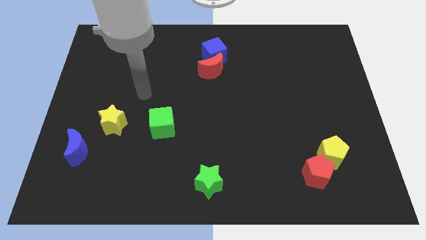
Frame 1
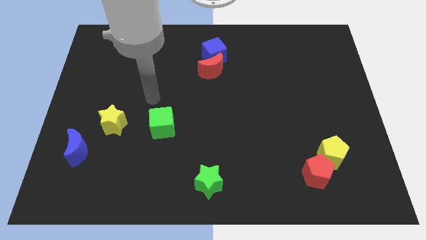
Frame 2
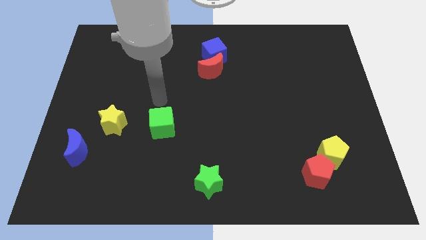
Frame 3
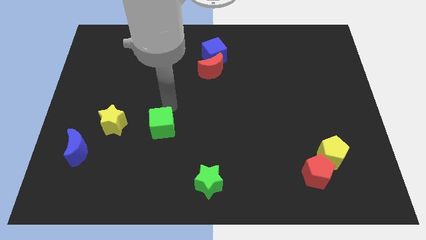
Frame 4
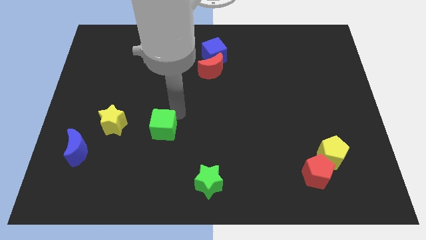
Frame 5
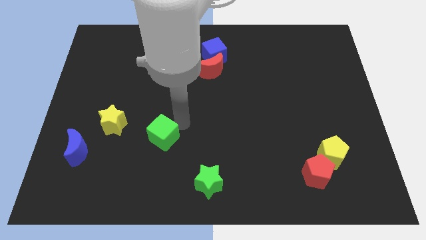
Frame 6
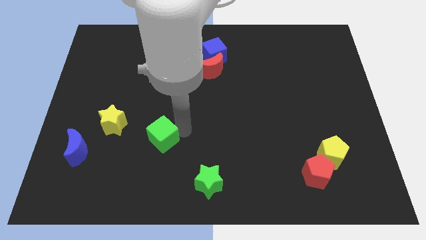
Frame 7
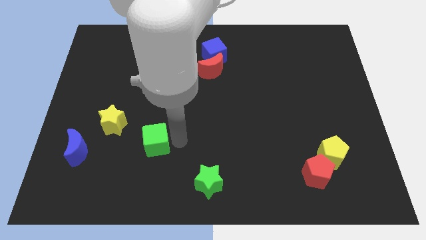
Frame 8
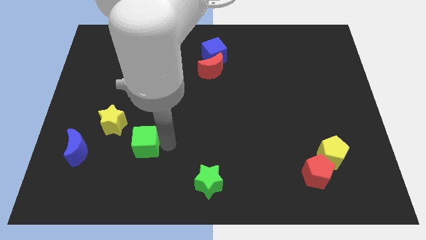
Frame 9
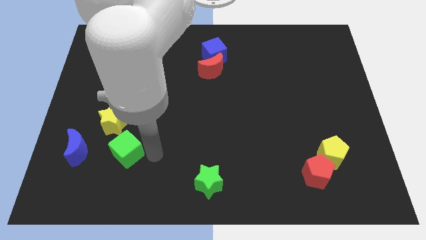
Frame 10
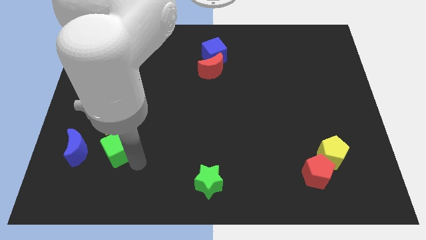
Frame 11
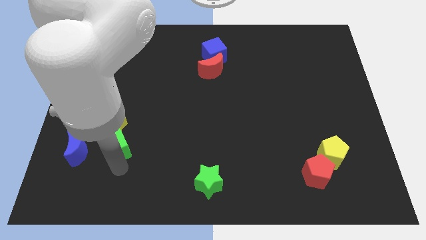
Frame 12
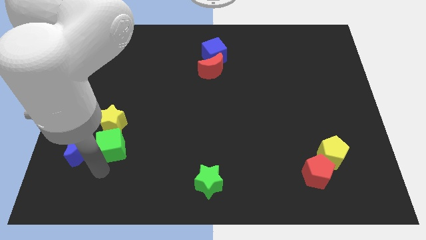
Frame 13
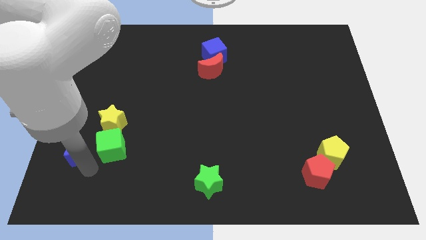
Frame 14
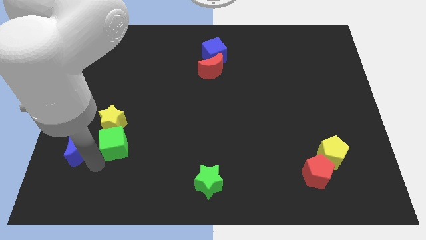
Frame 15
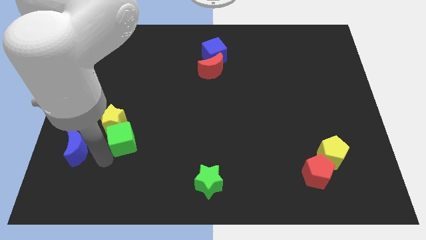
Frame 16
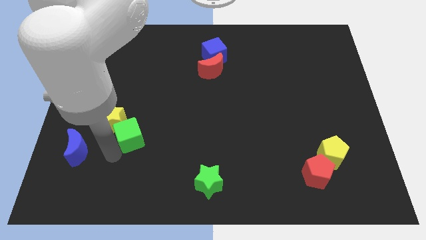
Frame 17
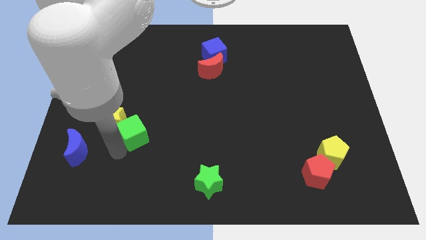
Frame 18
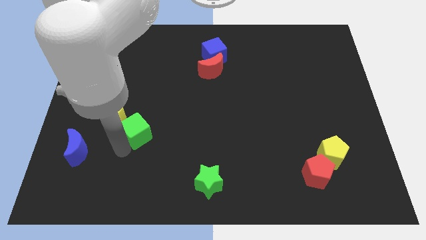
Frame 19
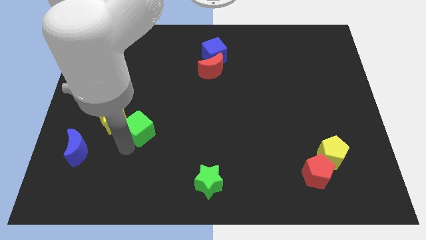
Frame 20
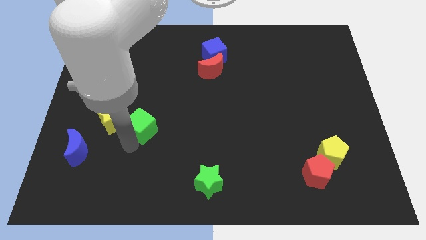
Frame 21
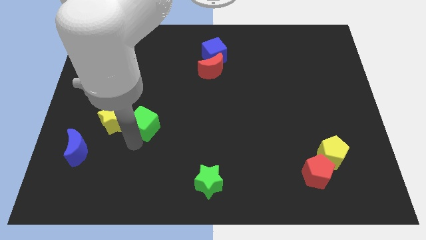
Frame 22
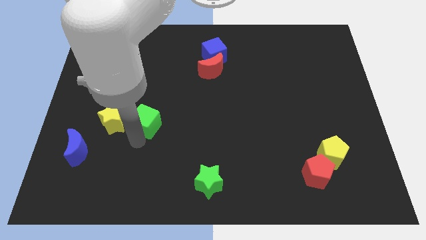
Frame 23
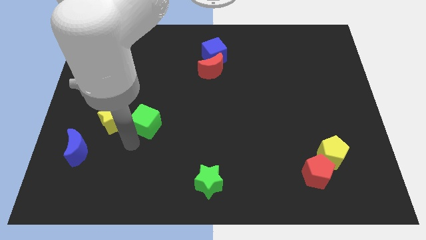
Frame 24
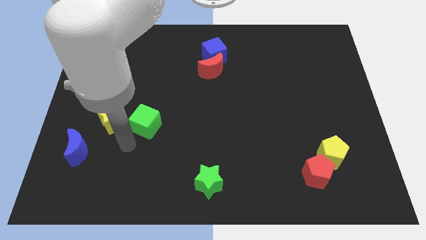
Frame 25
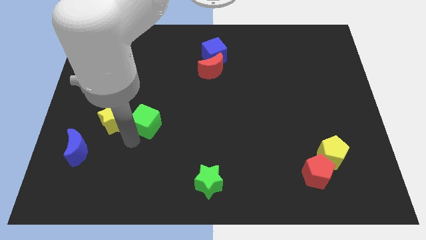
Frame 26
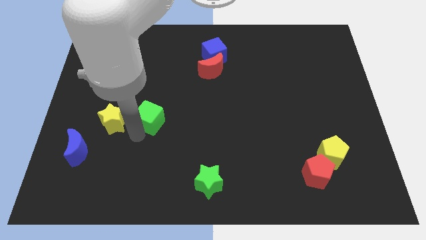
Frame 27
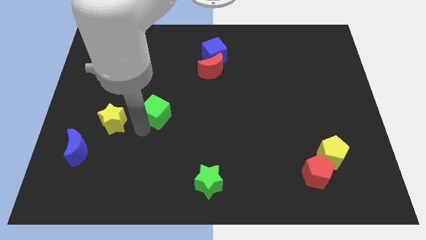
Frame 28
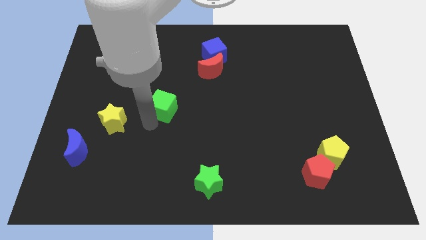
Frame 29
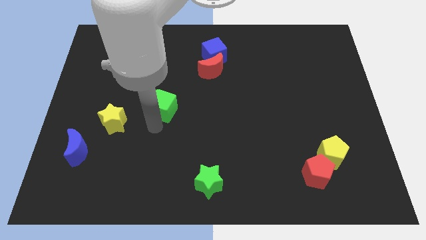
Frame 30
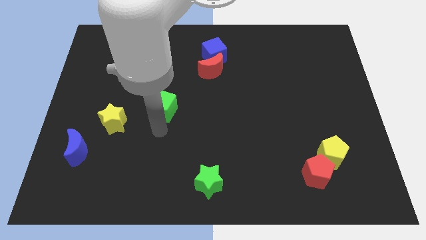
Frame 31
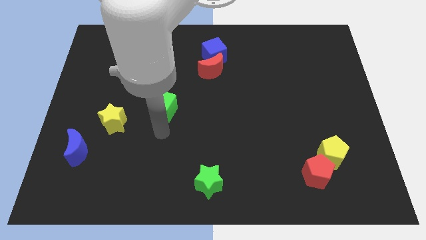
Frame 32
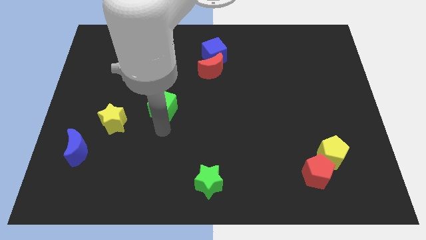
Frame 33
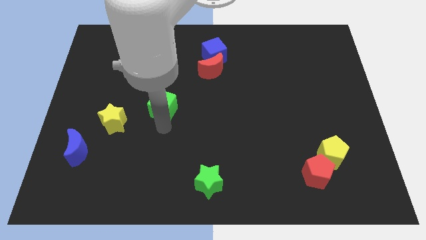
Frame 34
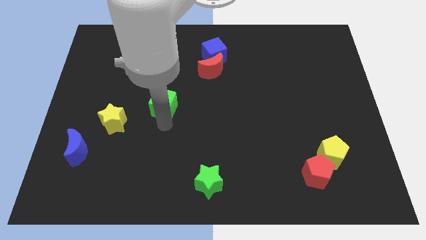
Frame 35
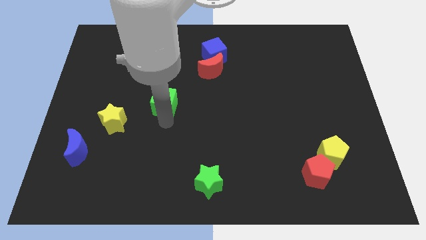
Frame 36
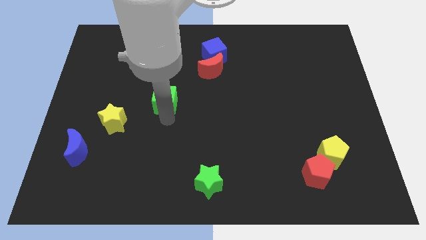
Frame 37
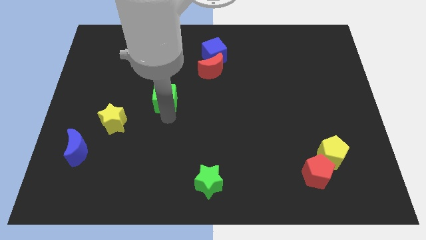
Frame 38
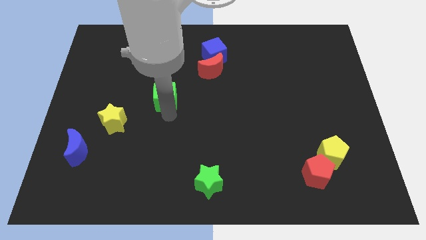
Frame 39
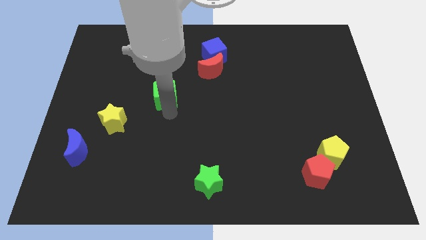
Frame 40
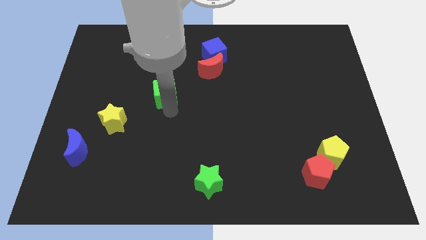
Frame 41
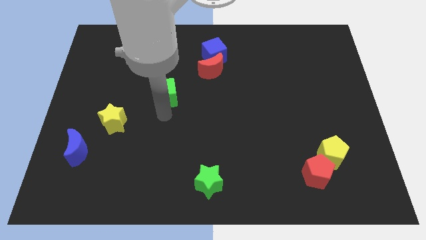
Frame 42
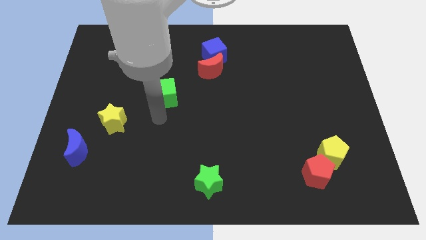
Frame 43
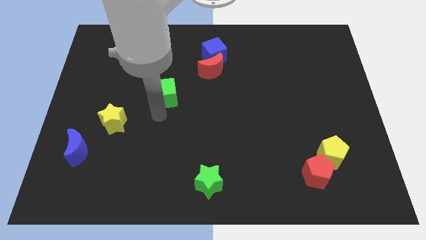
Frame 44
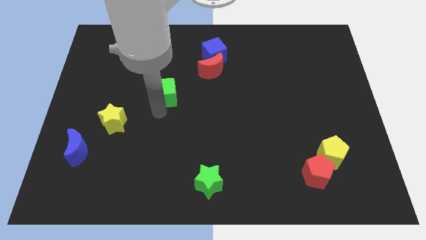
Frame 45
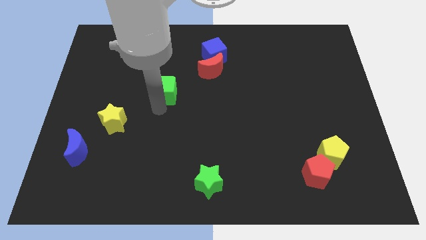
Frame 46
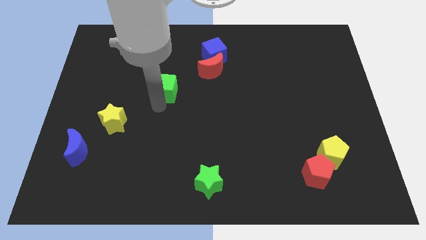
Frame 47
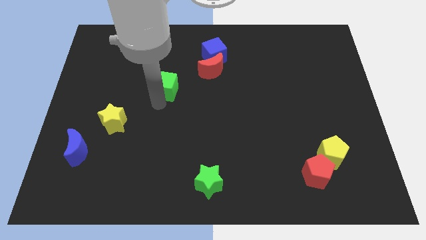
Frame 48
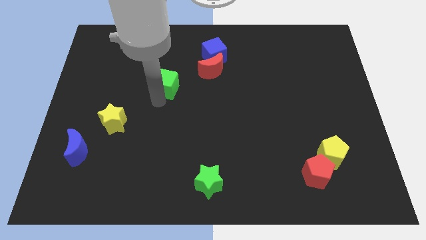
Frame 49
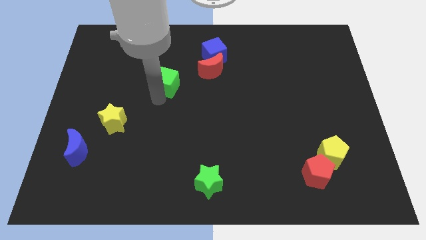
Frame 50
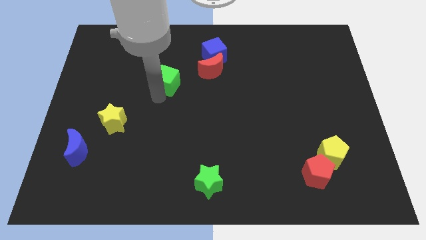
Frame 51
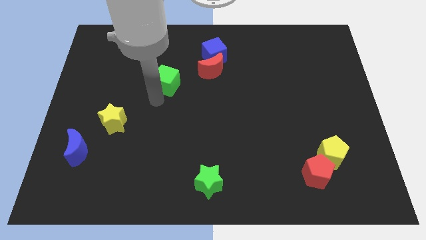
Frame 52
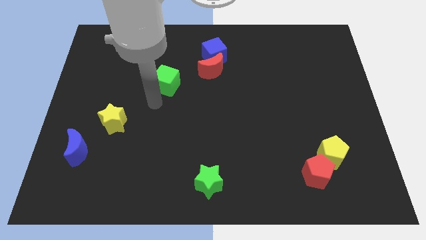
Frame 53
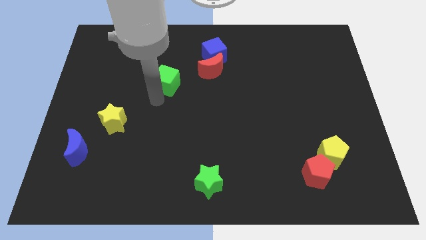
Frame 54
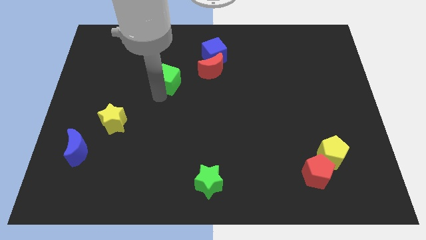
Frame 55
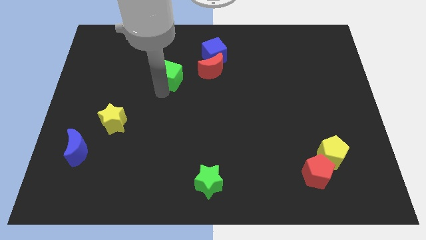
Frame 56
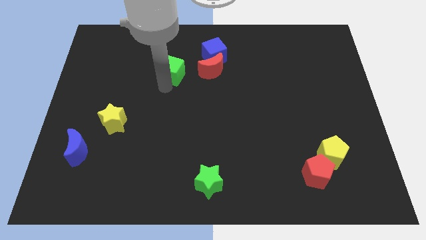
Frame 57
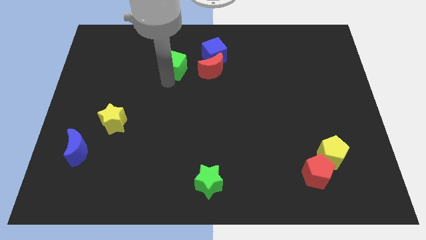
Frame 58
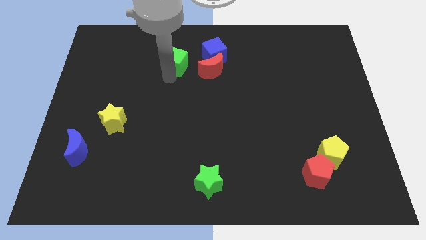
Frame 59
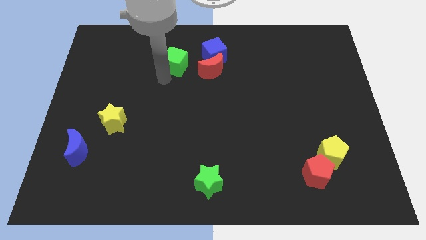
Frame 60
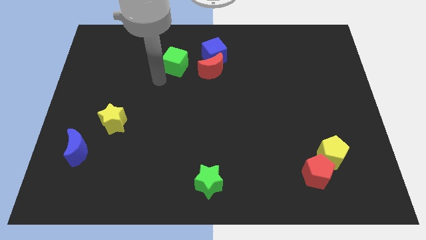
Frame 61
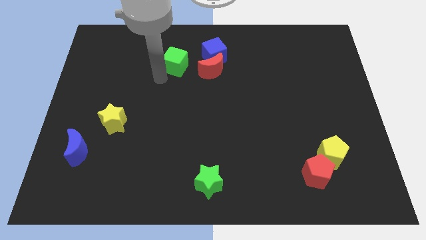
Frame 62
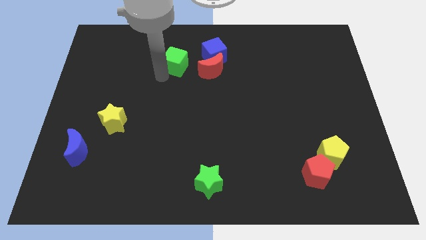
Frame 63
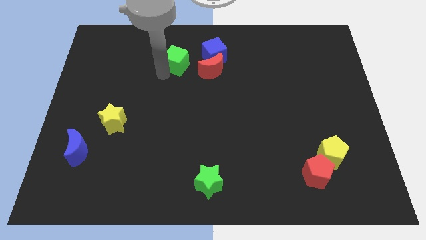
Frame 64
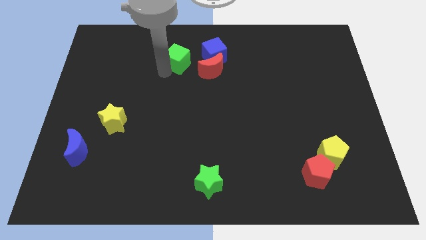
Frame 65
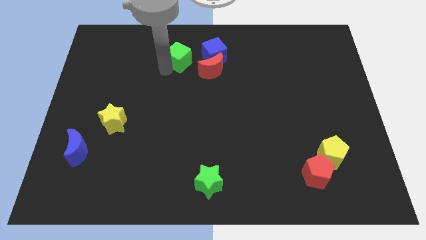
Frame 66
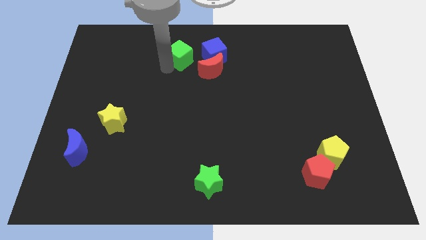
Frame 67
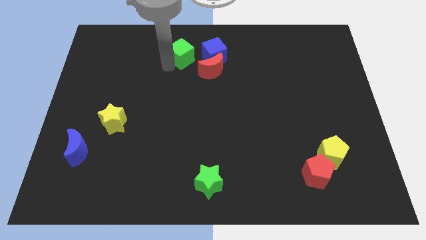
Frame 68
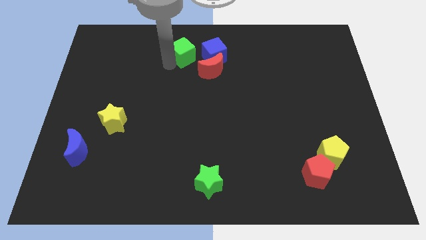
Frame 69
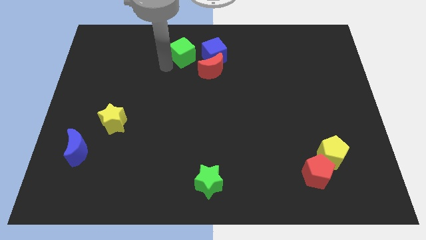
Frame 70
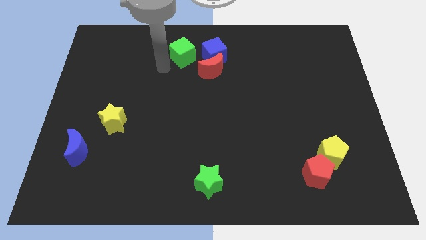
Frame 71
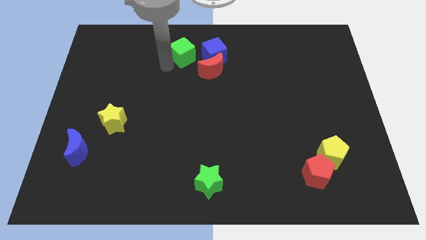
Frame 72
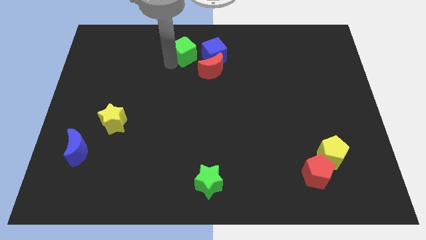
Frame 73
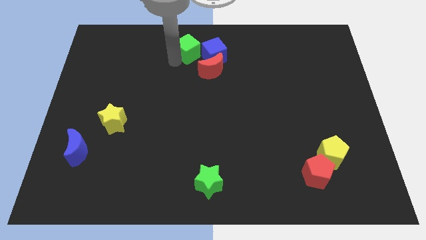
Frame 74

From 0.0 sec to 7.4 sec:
push the green cube to the top
